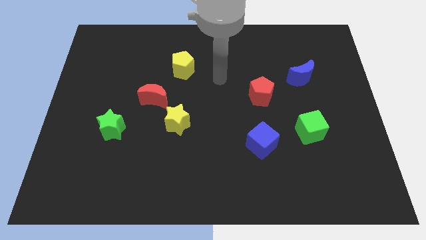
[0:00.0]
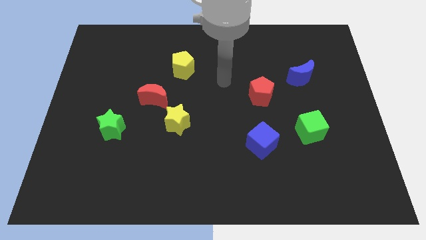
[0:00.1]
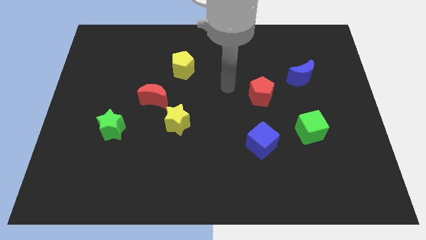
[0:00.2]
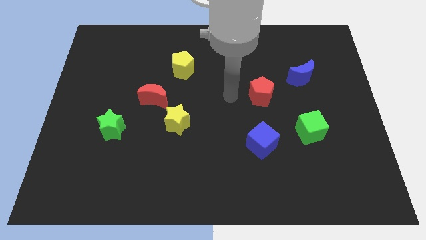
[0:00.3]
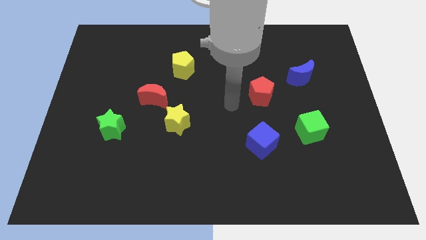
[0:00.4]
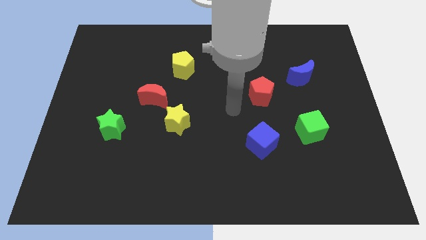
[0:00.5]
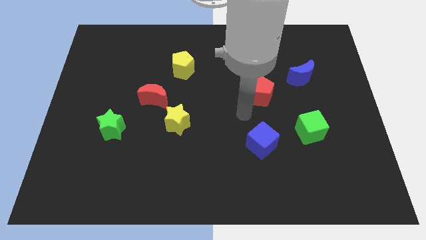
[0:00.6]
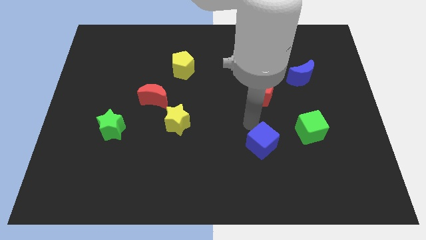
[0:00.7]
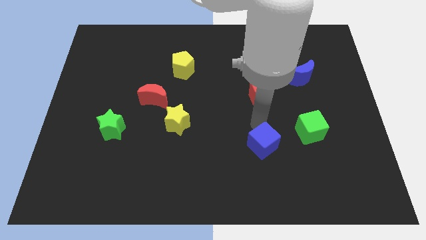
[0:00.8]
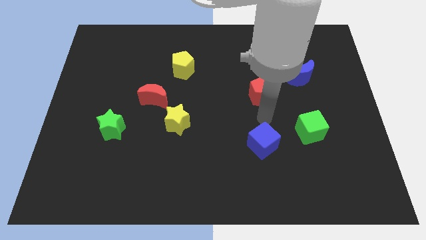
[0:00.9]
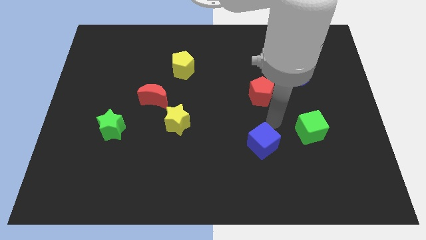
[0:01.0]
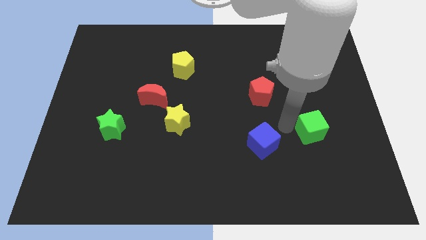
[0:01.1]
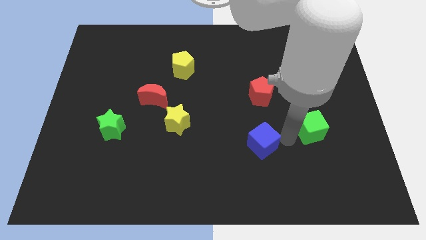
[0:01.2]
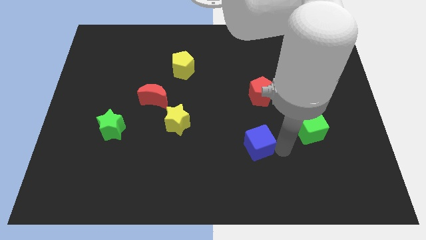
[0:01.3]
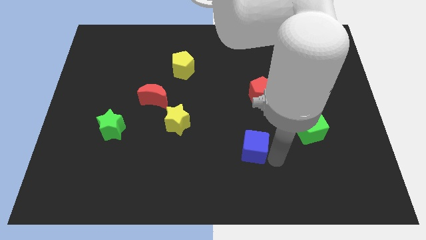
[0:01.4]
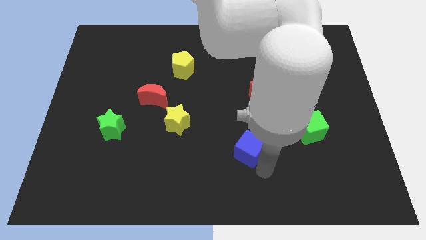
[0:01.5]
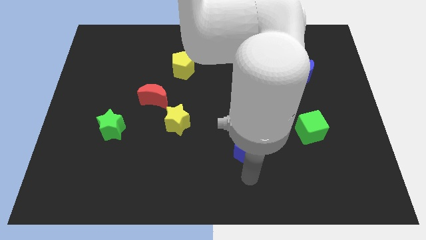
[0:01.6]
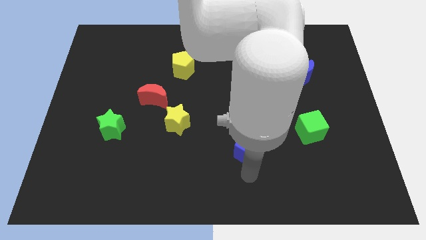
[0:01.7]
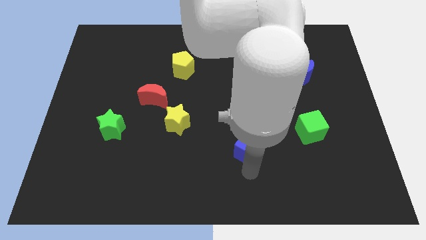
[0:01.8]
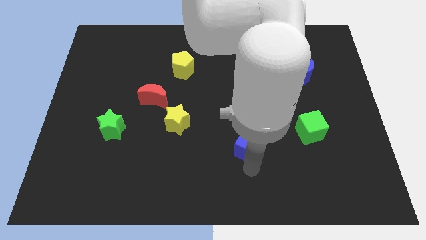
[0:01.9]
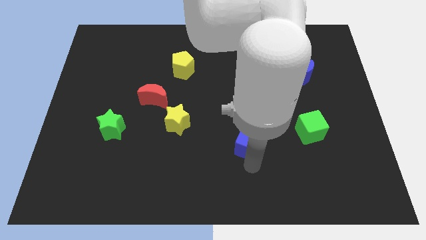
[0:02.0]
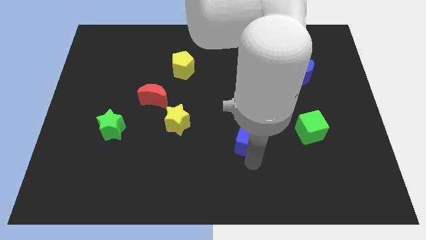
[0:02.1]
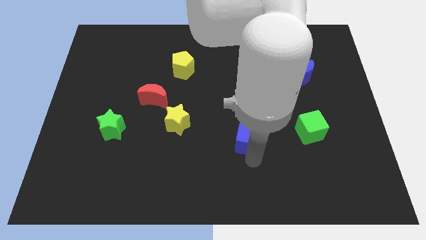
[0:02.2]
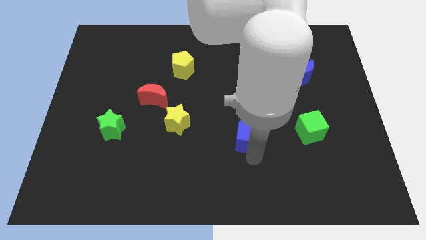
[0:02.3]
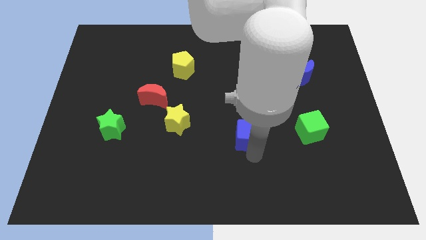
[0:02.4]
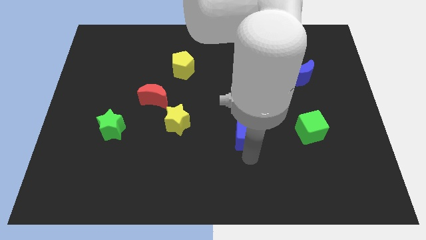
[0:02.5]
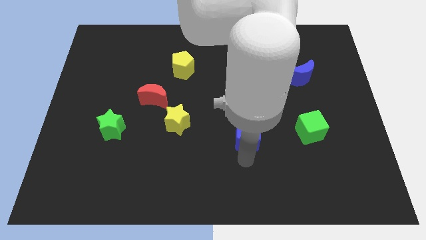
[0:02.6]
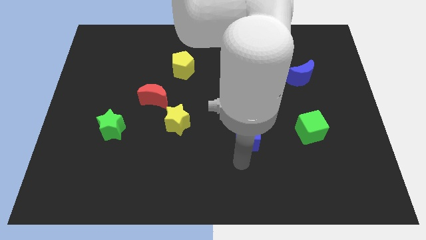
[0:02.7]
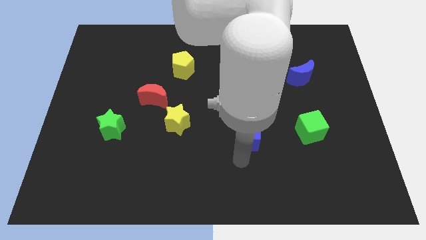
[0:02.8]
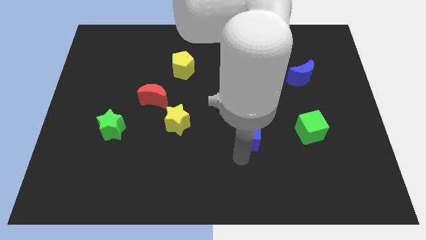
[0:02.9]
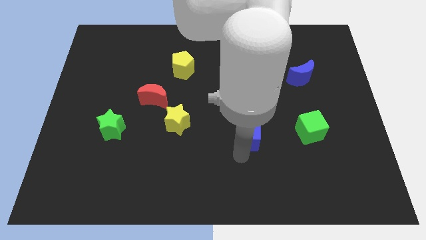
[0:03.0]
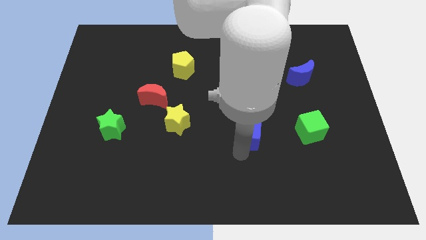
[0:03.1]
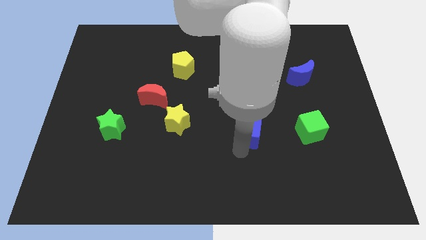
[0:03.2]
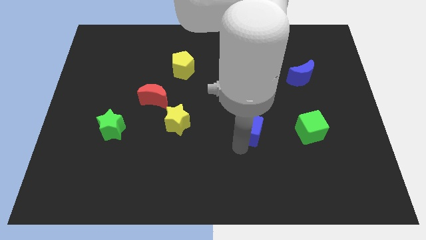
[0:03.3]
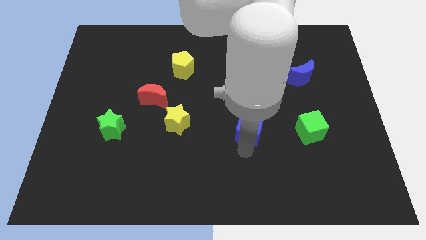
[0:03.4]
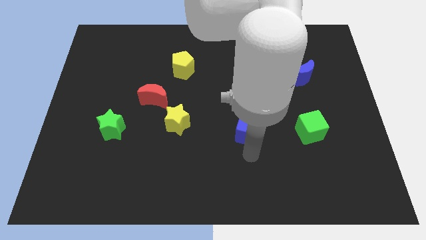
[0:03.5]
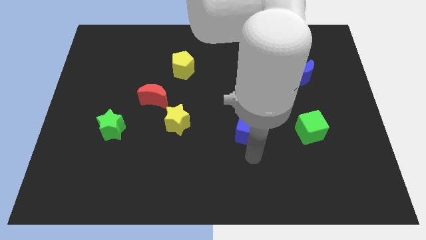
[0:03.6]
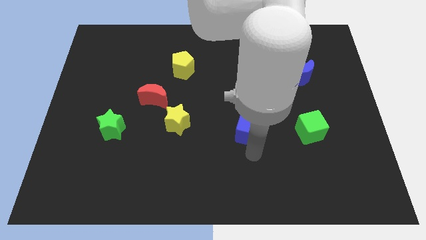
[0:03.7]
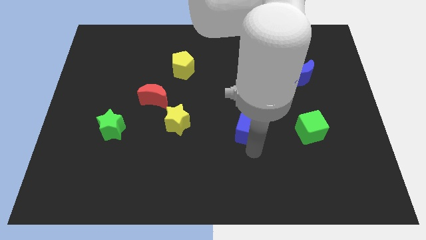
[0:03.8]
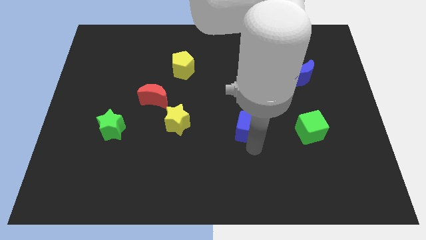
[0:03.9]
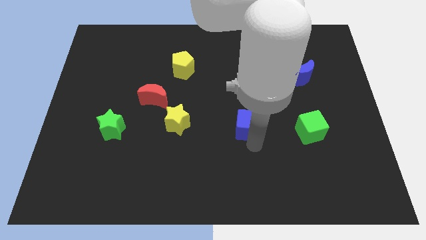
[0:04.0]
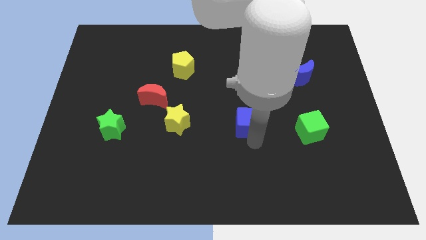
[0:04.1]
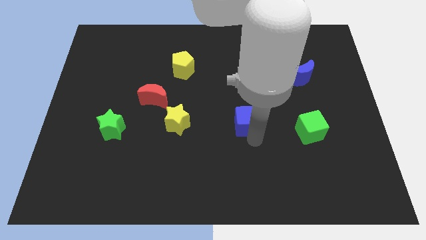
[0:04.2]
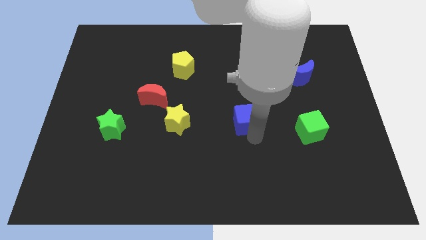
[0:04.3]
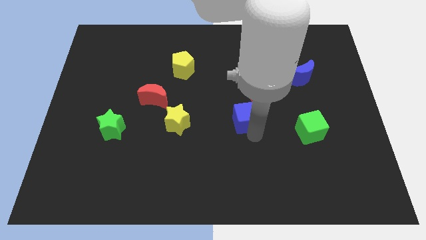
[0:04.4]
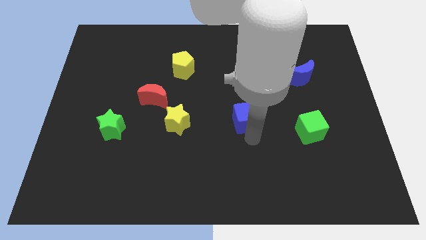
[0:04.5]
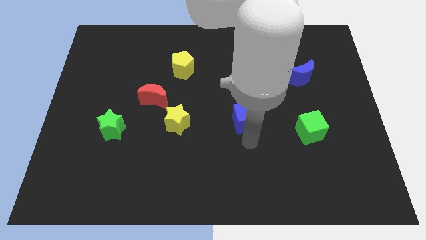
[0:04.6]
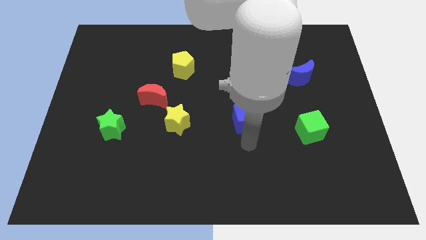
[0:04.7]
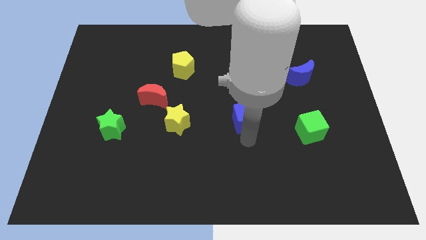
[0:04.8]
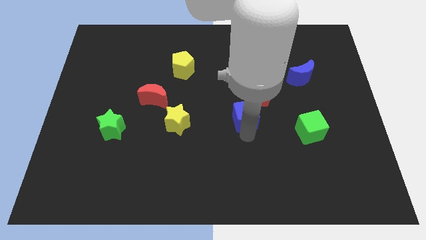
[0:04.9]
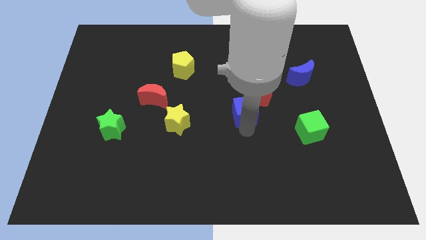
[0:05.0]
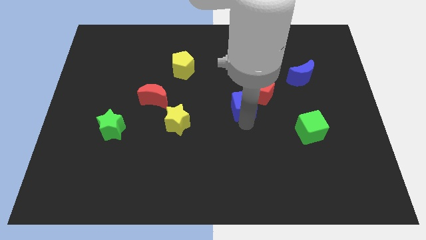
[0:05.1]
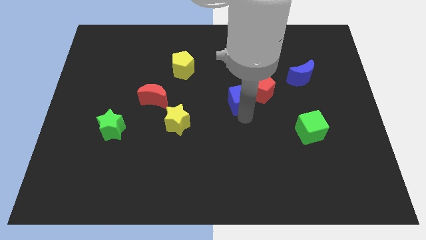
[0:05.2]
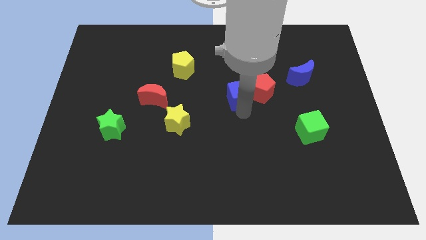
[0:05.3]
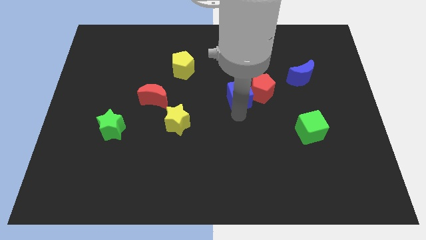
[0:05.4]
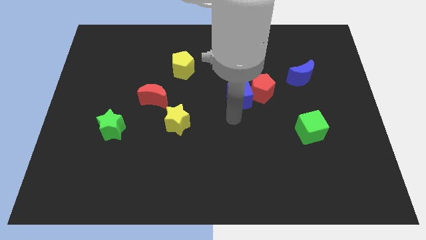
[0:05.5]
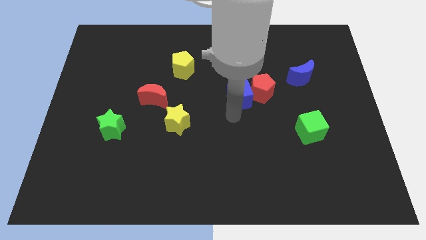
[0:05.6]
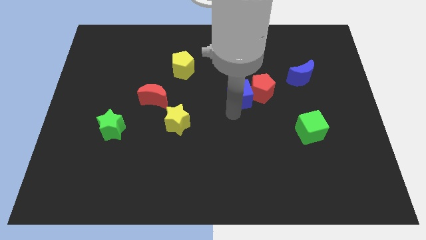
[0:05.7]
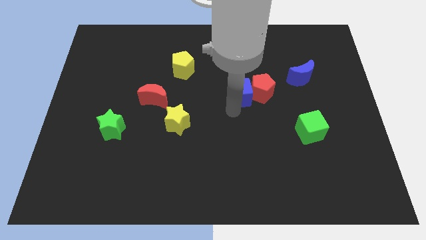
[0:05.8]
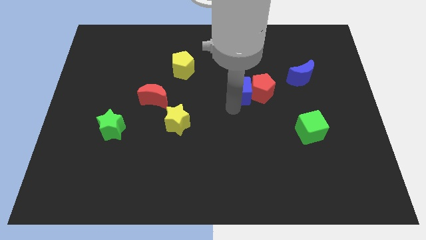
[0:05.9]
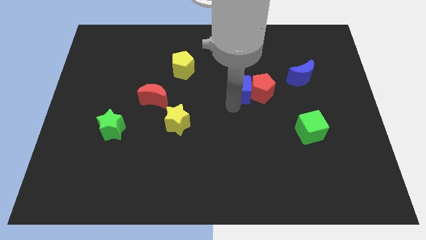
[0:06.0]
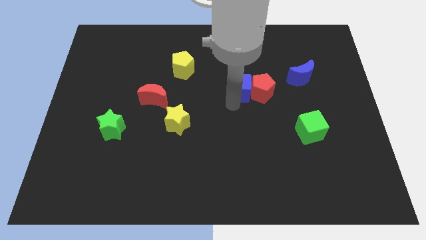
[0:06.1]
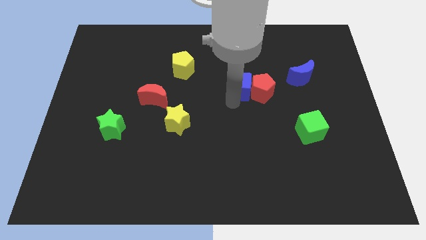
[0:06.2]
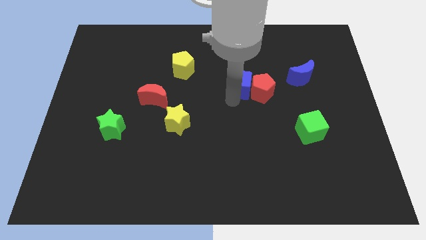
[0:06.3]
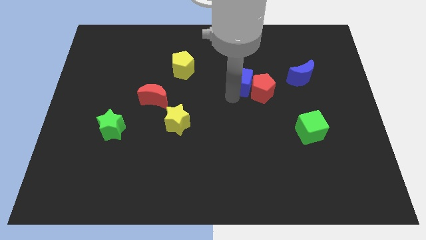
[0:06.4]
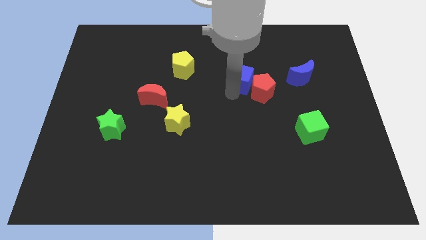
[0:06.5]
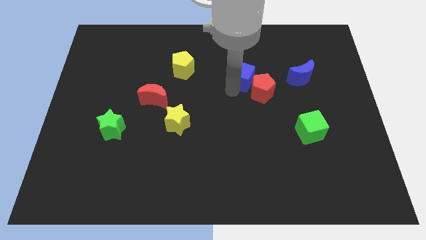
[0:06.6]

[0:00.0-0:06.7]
slide the blue cube above the red pentagon

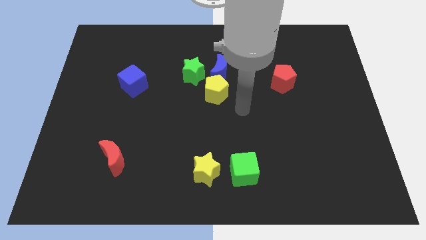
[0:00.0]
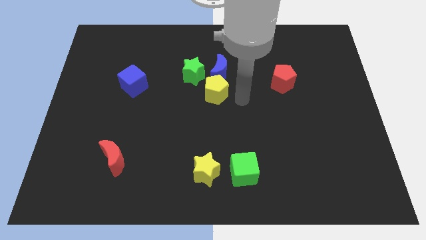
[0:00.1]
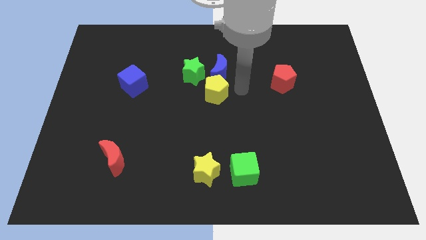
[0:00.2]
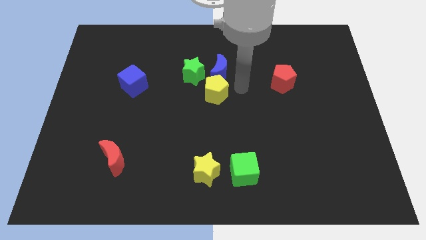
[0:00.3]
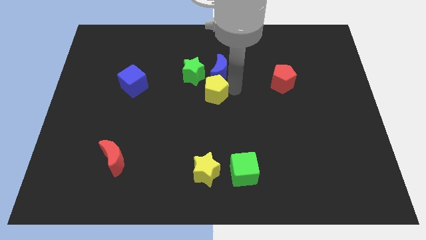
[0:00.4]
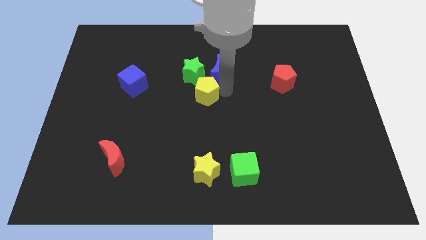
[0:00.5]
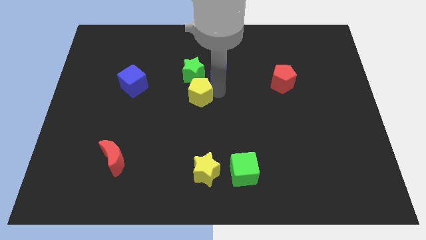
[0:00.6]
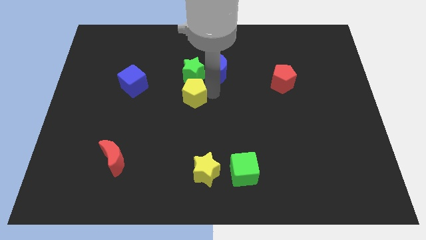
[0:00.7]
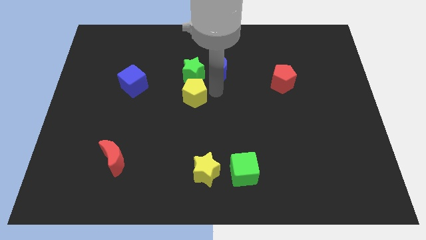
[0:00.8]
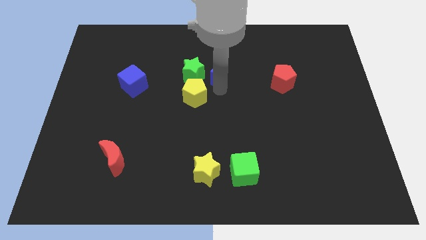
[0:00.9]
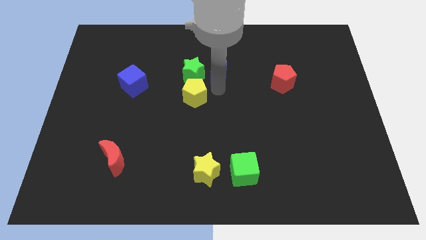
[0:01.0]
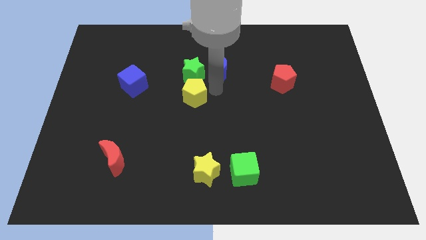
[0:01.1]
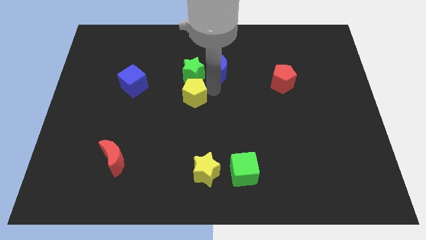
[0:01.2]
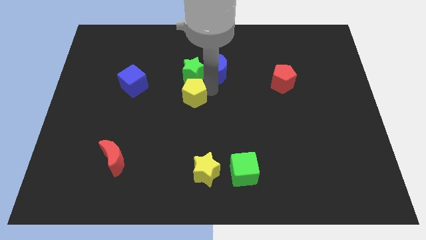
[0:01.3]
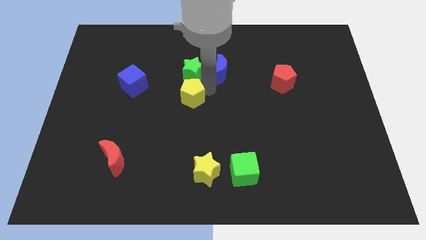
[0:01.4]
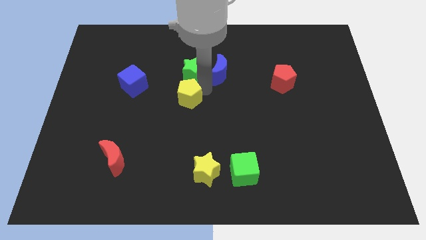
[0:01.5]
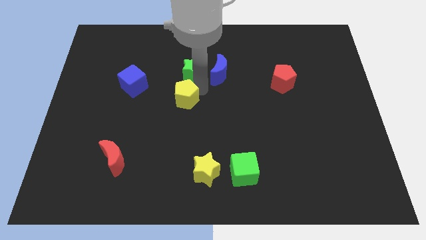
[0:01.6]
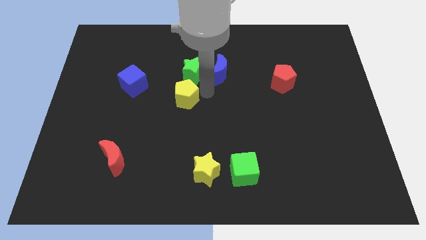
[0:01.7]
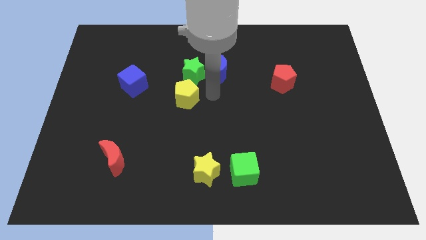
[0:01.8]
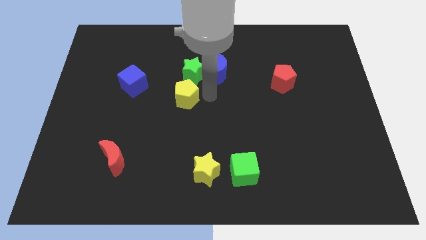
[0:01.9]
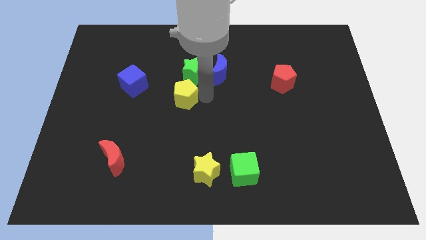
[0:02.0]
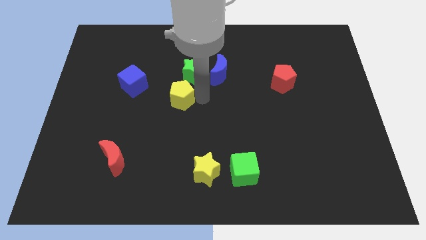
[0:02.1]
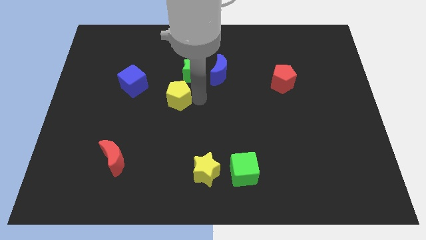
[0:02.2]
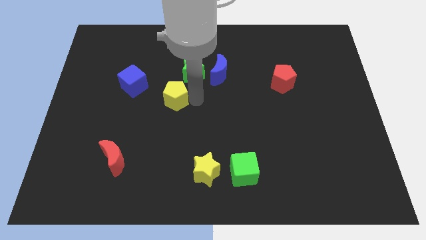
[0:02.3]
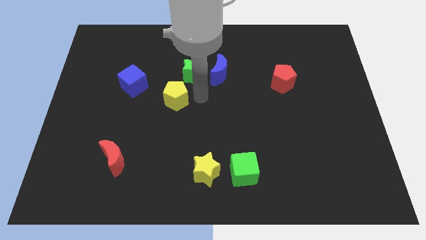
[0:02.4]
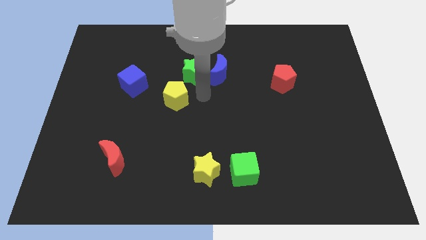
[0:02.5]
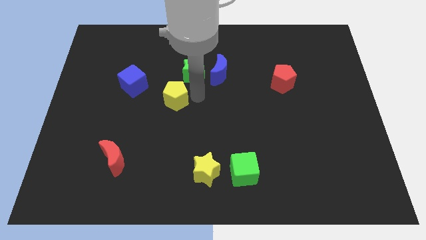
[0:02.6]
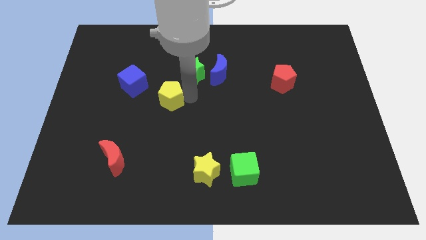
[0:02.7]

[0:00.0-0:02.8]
move the yellow pentagon to the bottom right side of the blue cube
